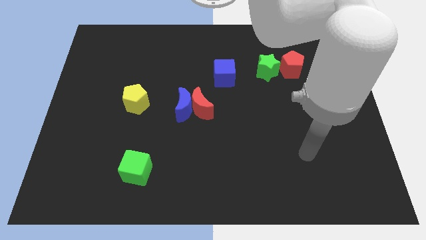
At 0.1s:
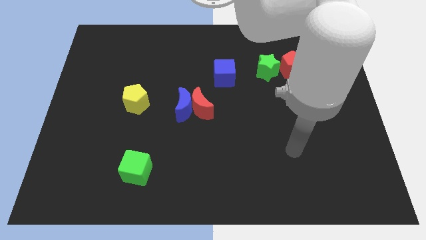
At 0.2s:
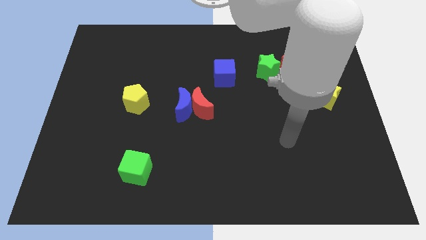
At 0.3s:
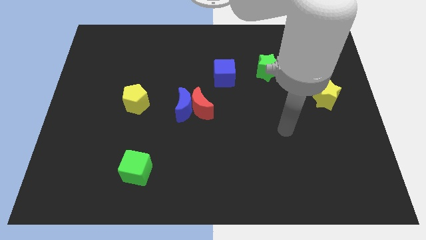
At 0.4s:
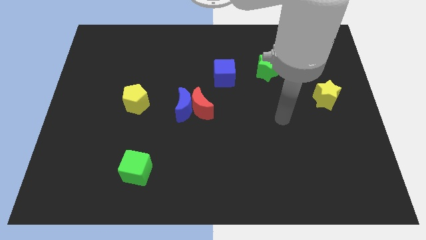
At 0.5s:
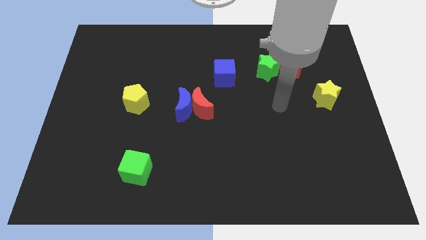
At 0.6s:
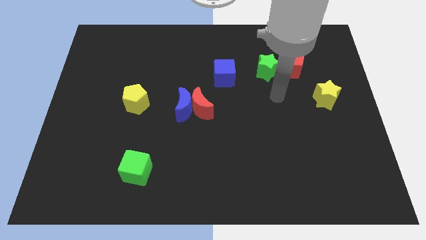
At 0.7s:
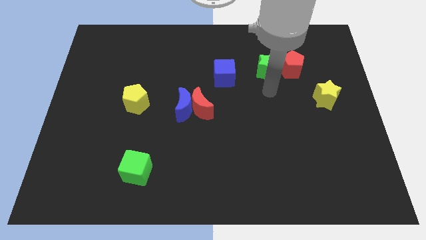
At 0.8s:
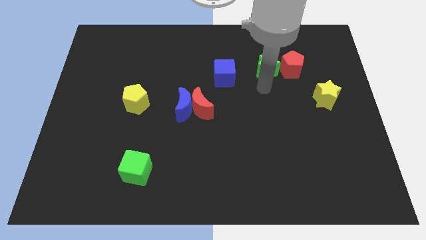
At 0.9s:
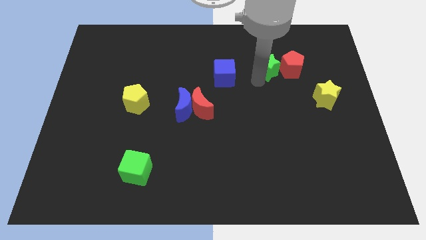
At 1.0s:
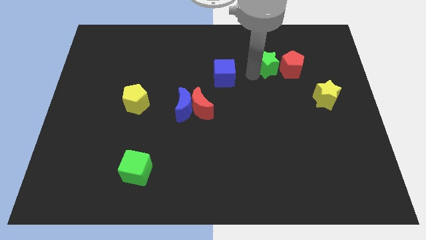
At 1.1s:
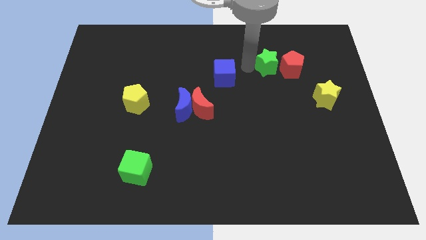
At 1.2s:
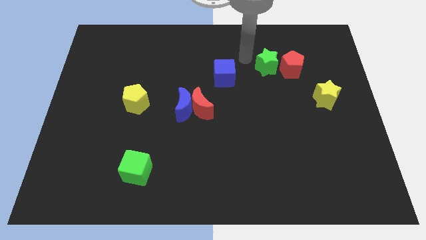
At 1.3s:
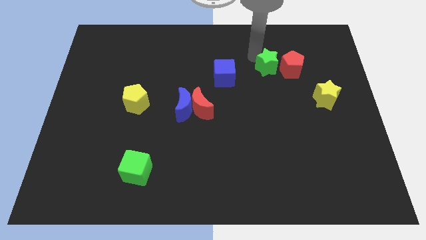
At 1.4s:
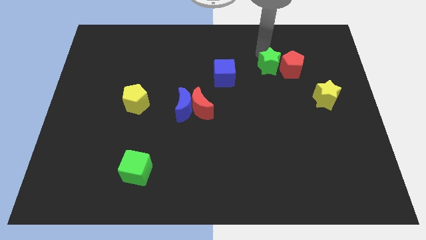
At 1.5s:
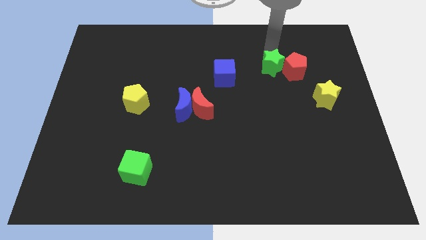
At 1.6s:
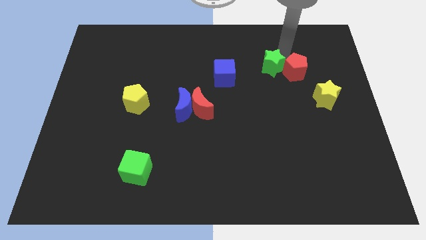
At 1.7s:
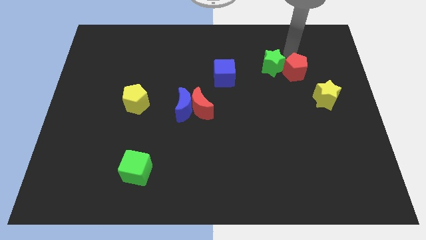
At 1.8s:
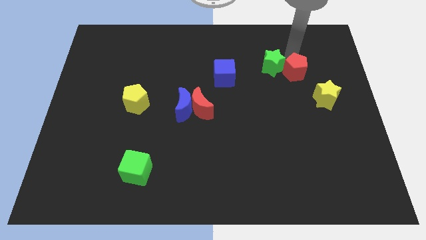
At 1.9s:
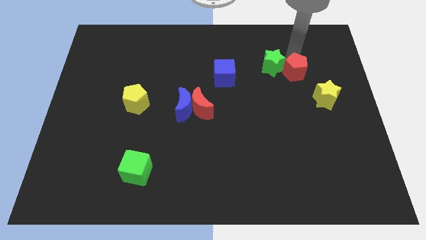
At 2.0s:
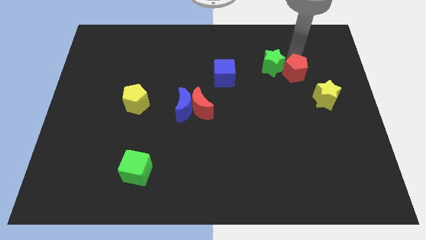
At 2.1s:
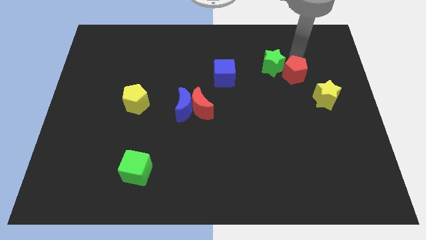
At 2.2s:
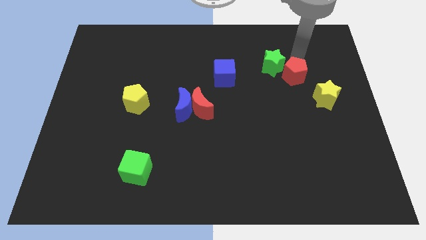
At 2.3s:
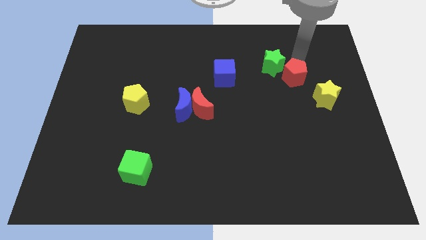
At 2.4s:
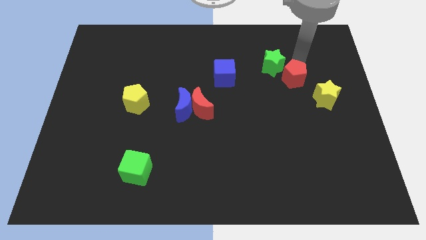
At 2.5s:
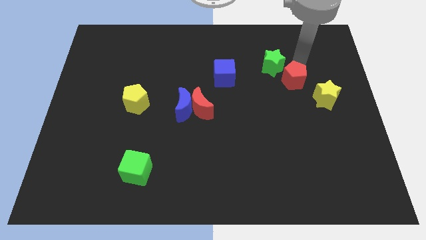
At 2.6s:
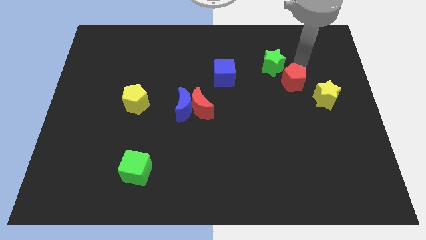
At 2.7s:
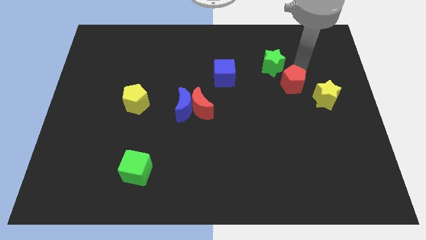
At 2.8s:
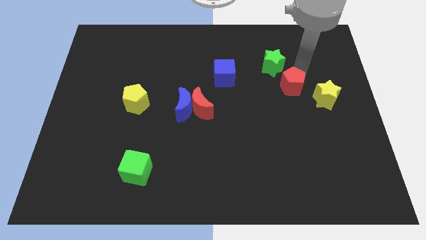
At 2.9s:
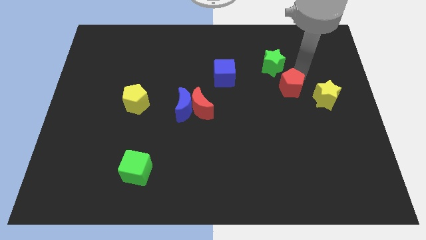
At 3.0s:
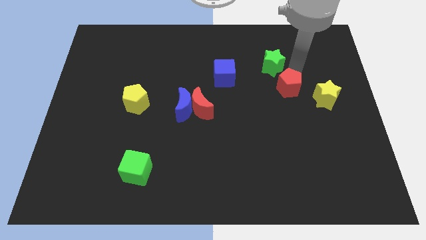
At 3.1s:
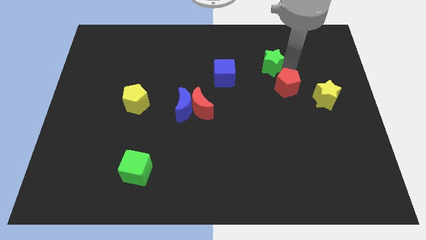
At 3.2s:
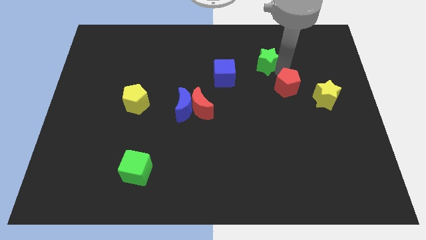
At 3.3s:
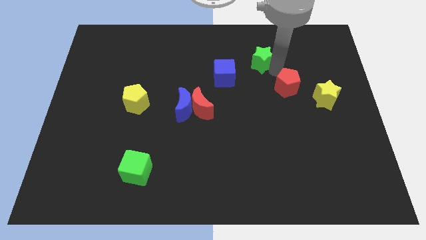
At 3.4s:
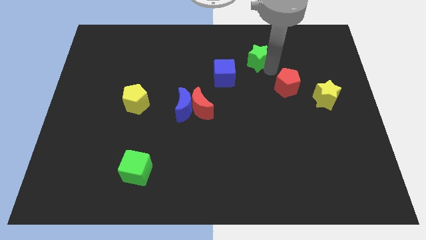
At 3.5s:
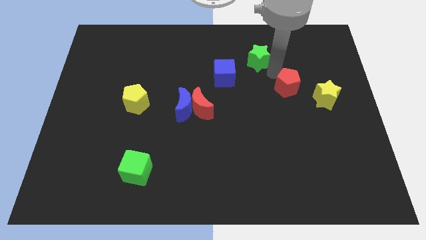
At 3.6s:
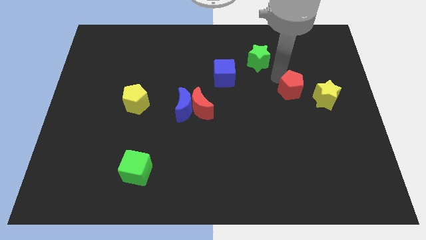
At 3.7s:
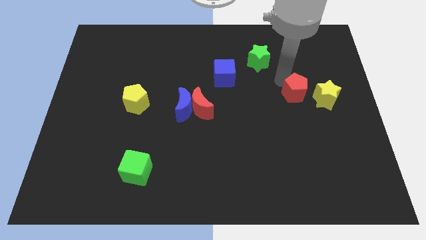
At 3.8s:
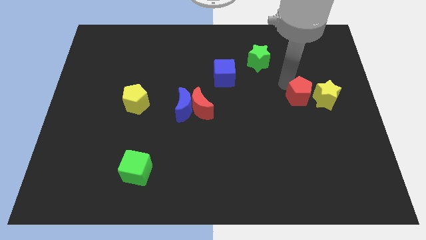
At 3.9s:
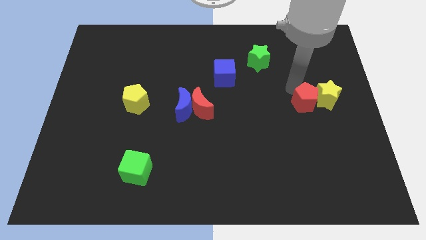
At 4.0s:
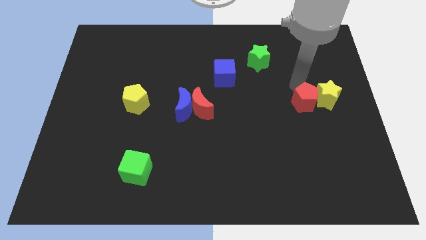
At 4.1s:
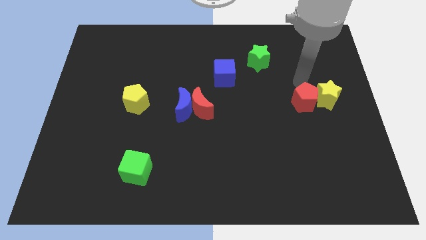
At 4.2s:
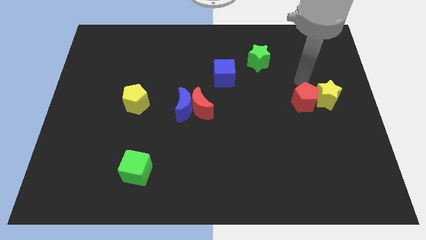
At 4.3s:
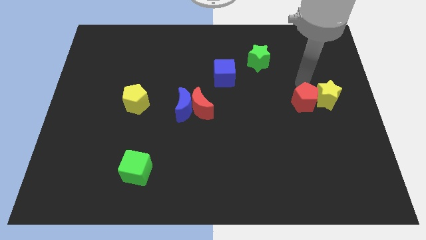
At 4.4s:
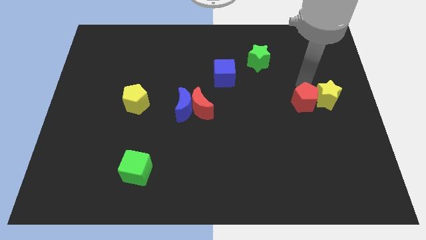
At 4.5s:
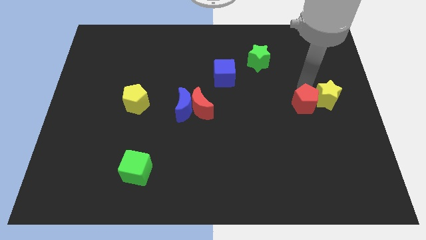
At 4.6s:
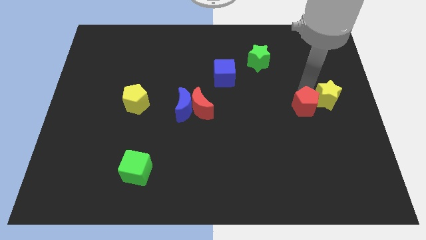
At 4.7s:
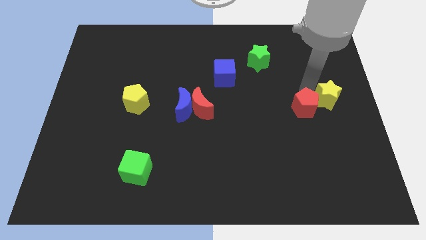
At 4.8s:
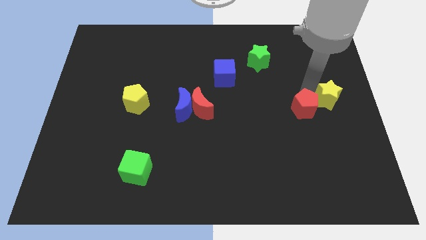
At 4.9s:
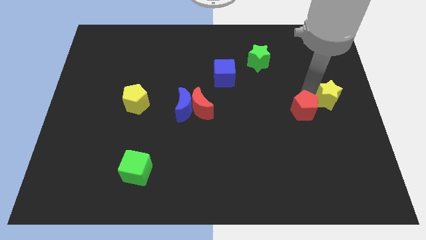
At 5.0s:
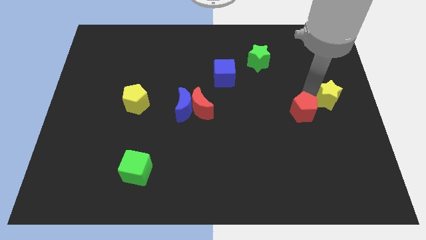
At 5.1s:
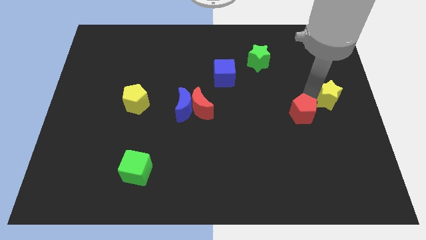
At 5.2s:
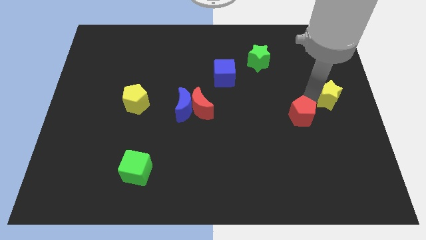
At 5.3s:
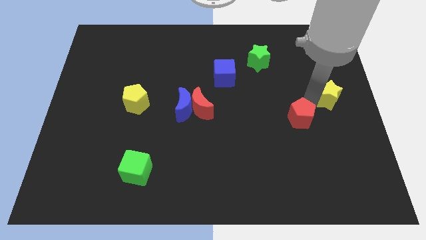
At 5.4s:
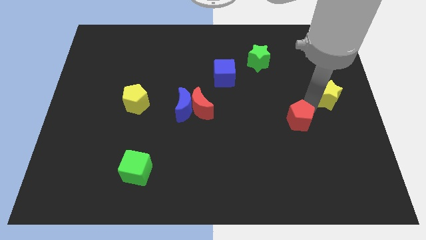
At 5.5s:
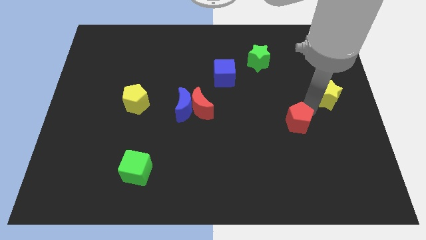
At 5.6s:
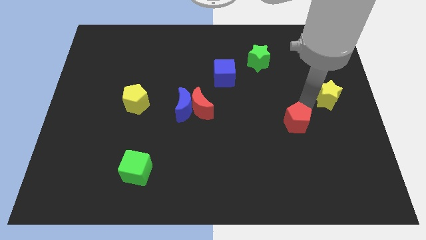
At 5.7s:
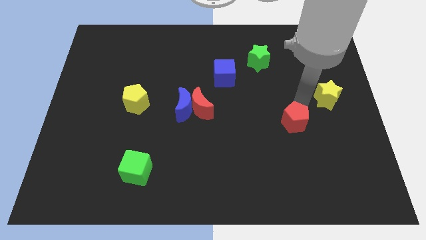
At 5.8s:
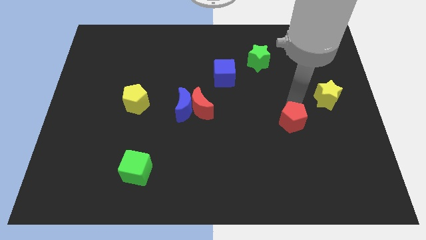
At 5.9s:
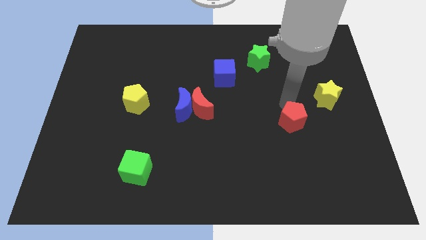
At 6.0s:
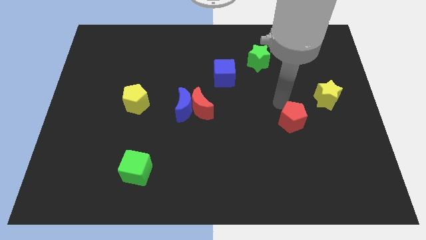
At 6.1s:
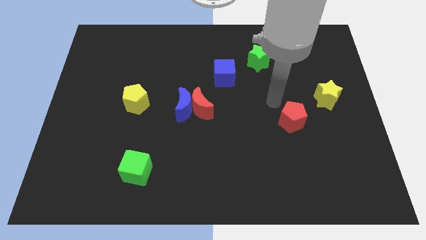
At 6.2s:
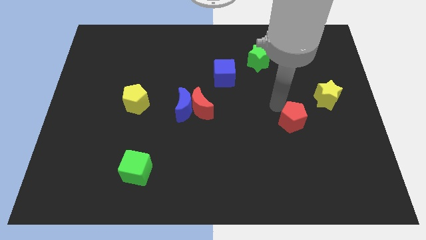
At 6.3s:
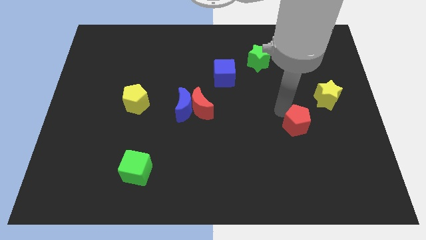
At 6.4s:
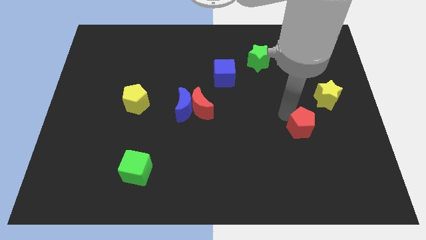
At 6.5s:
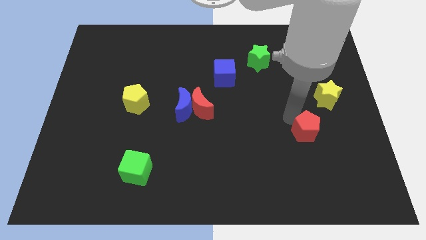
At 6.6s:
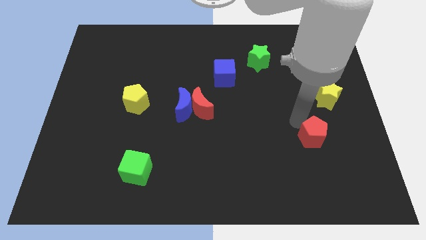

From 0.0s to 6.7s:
push the red pentagon downwards

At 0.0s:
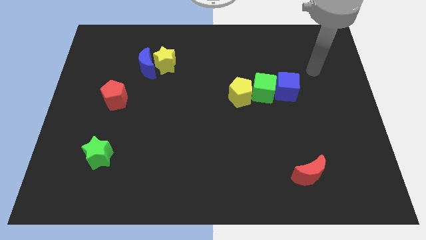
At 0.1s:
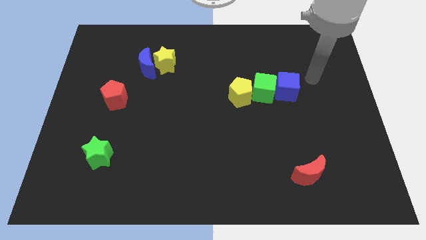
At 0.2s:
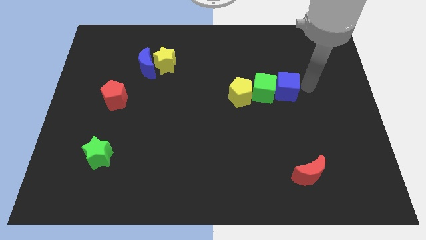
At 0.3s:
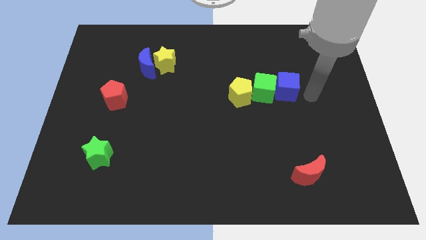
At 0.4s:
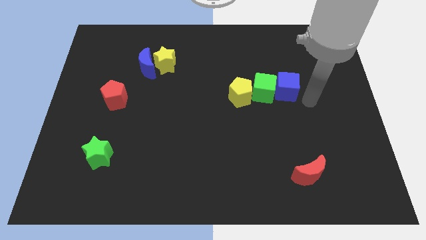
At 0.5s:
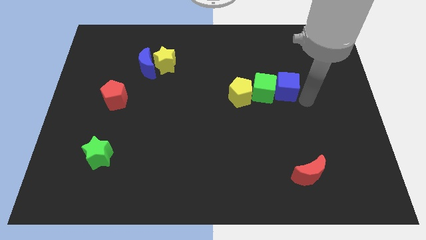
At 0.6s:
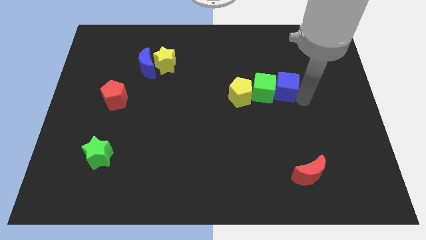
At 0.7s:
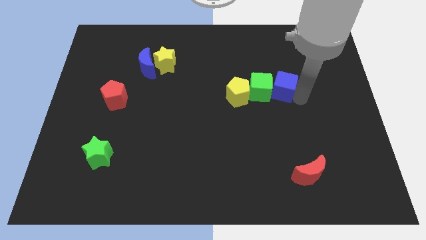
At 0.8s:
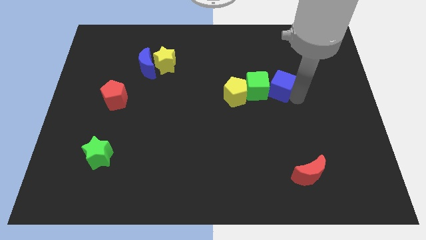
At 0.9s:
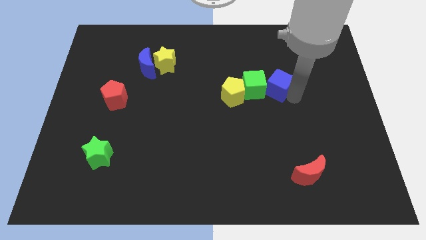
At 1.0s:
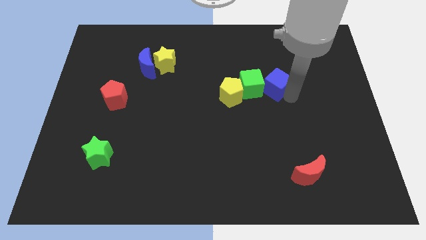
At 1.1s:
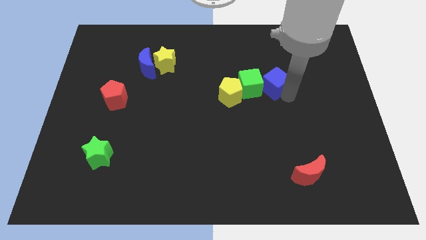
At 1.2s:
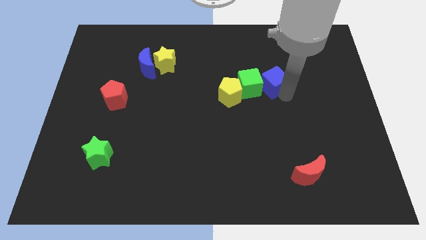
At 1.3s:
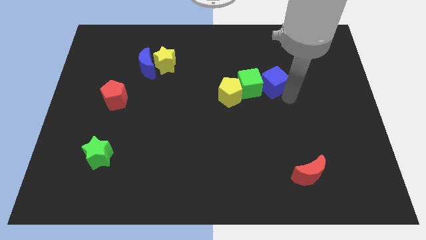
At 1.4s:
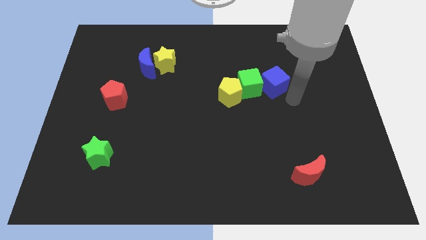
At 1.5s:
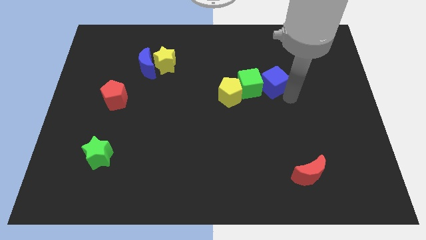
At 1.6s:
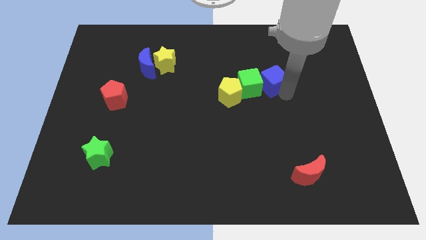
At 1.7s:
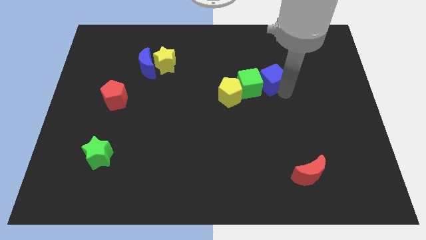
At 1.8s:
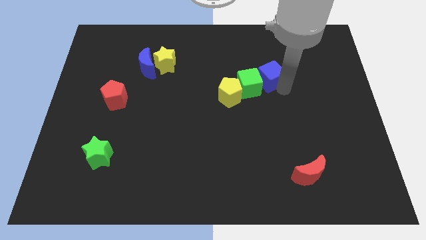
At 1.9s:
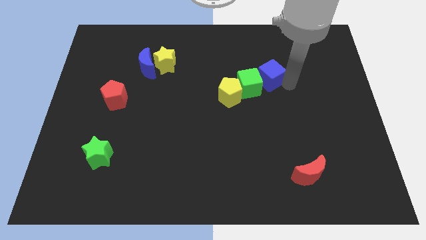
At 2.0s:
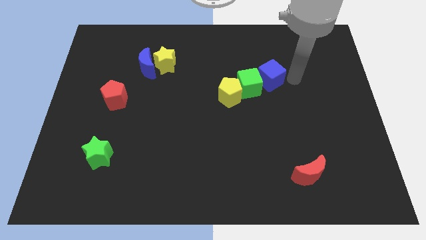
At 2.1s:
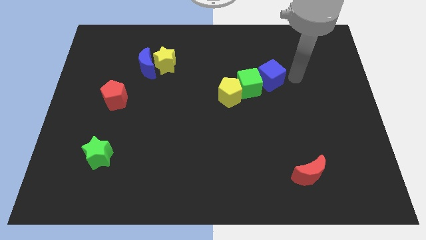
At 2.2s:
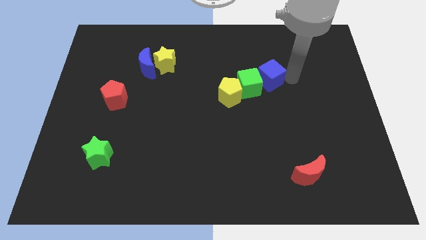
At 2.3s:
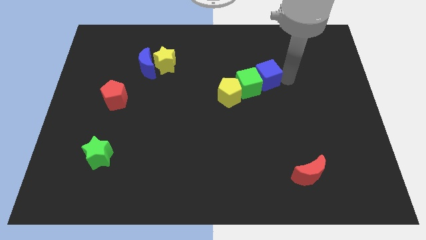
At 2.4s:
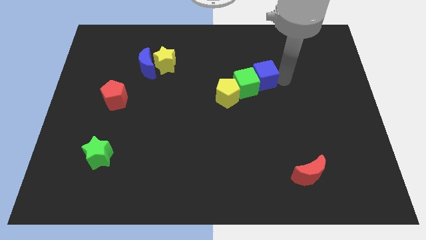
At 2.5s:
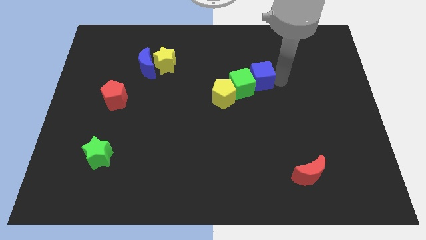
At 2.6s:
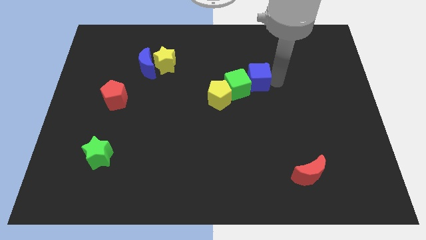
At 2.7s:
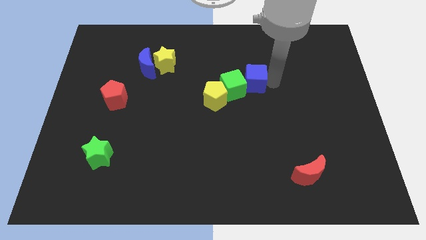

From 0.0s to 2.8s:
move the blue cube a little bit left
